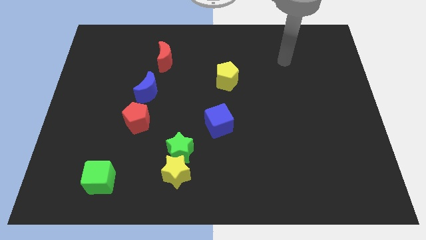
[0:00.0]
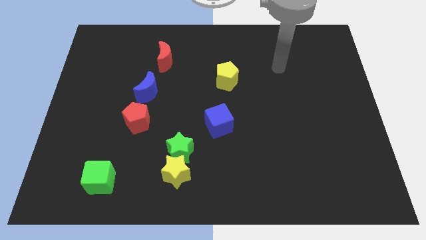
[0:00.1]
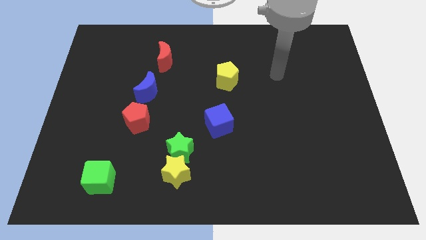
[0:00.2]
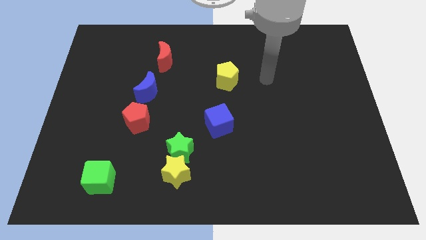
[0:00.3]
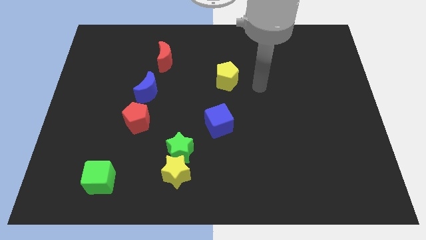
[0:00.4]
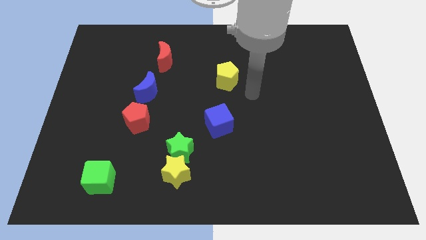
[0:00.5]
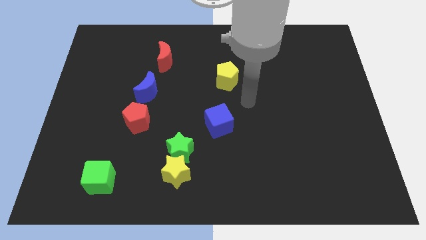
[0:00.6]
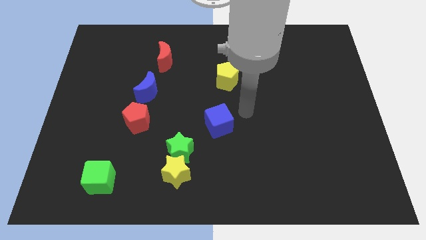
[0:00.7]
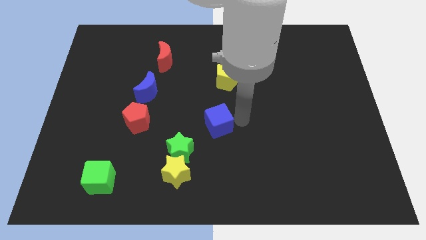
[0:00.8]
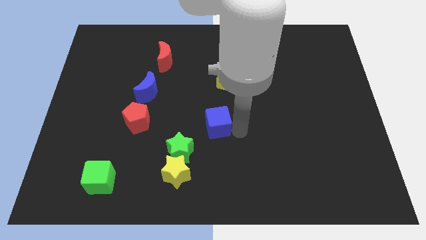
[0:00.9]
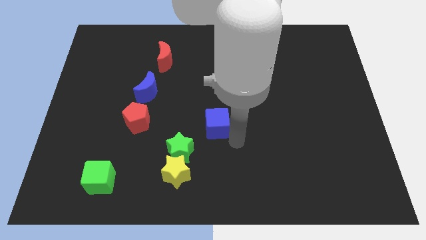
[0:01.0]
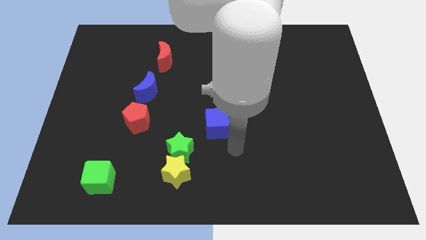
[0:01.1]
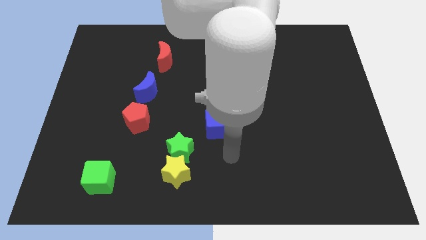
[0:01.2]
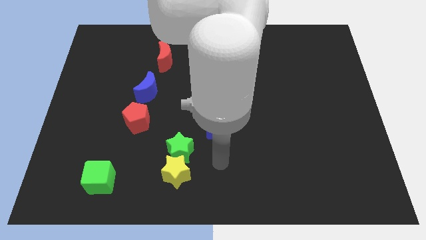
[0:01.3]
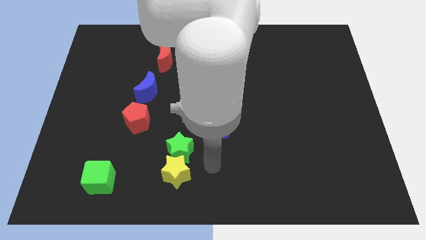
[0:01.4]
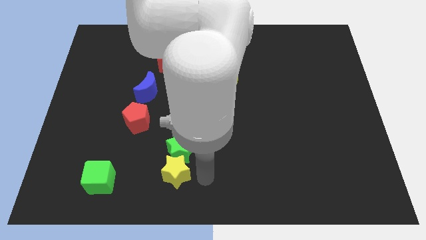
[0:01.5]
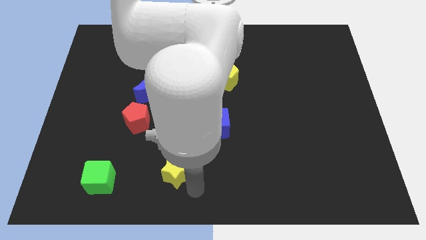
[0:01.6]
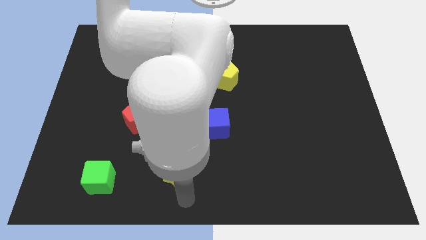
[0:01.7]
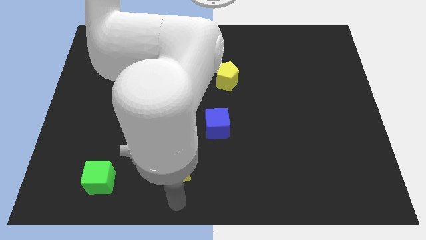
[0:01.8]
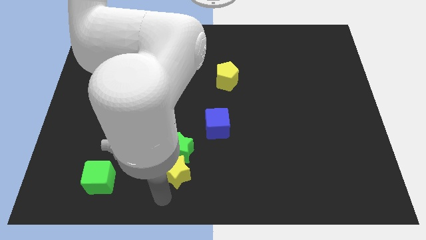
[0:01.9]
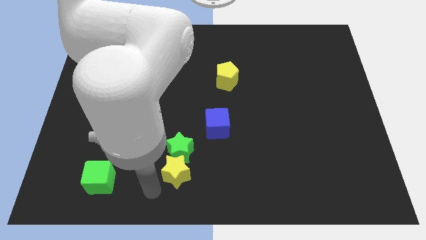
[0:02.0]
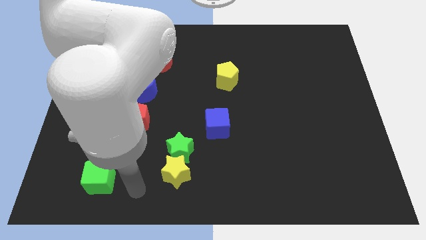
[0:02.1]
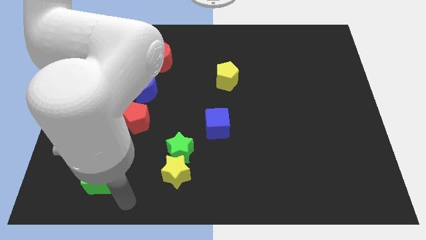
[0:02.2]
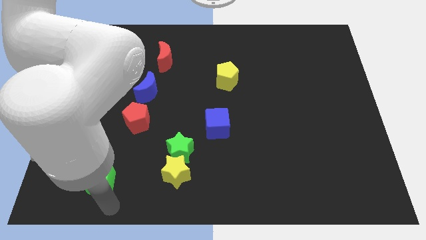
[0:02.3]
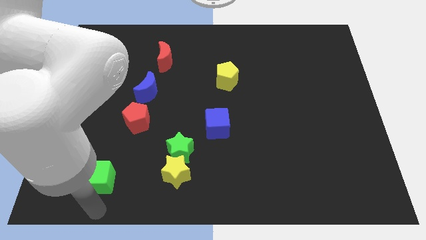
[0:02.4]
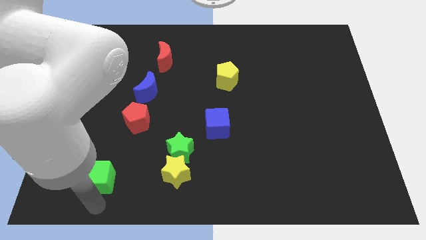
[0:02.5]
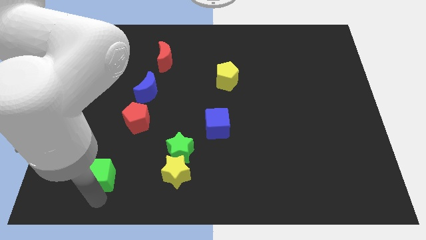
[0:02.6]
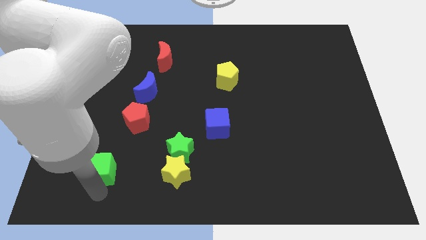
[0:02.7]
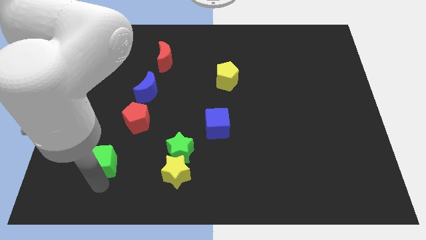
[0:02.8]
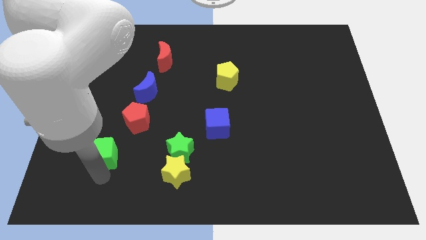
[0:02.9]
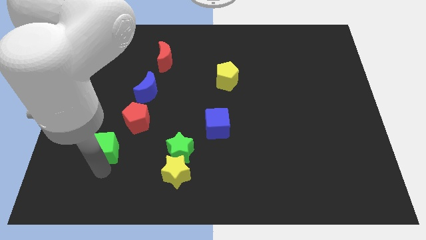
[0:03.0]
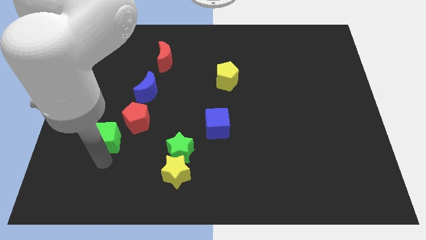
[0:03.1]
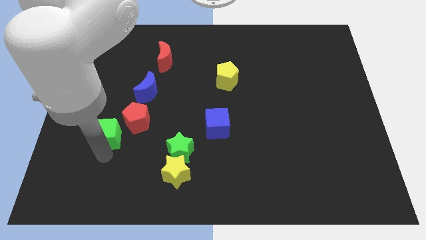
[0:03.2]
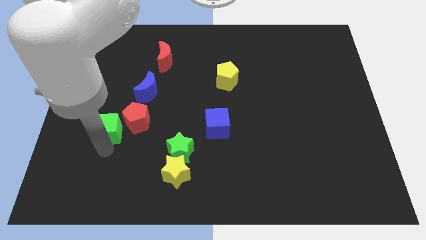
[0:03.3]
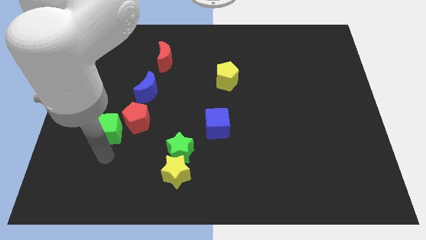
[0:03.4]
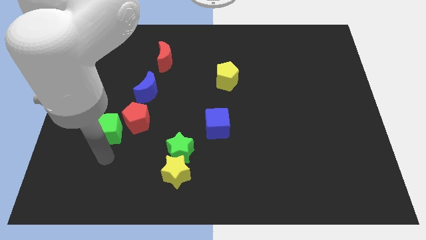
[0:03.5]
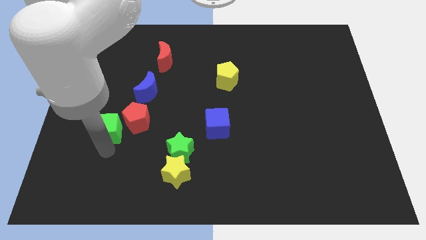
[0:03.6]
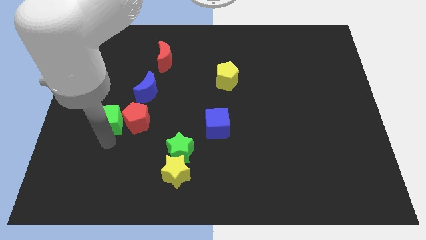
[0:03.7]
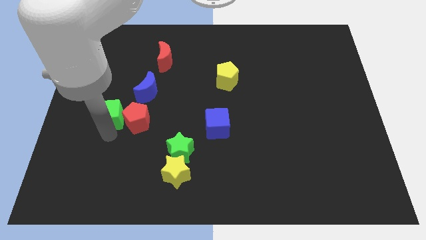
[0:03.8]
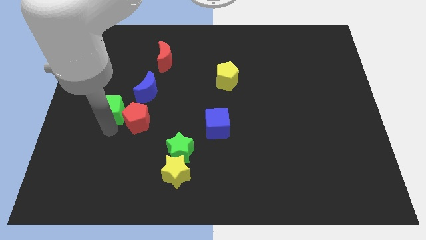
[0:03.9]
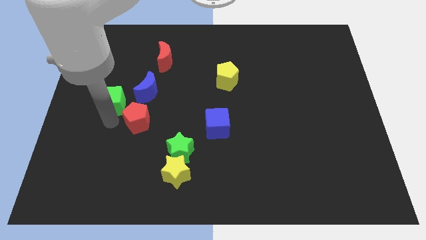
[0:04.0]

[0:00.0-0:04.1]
push the green cube upwards

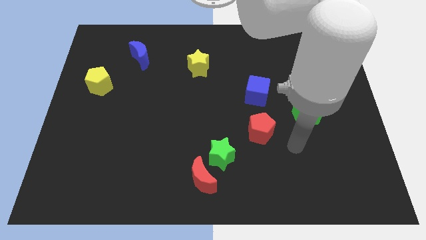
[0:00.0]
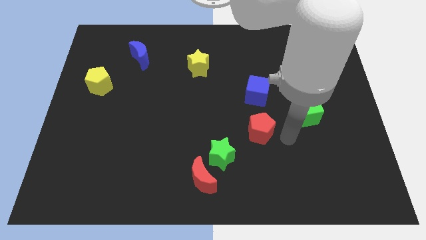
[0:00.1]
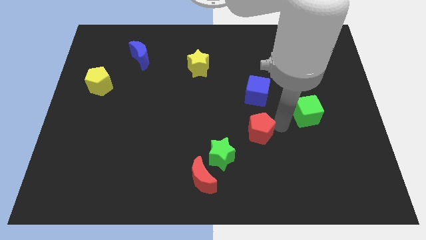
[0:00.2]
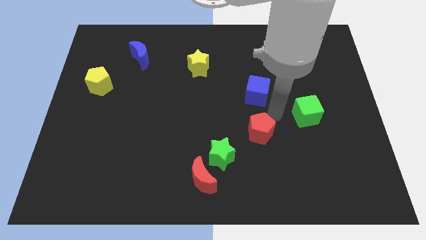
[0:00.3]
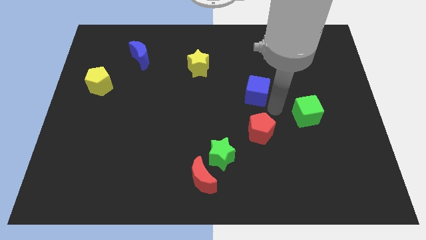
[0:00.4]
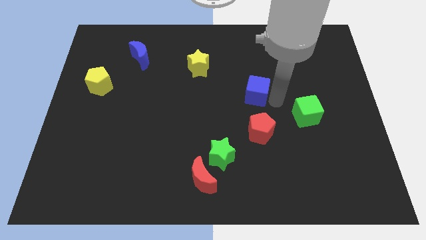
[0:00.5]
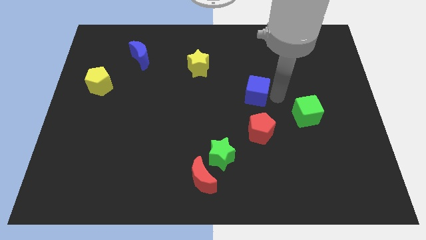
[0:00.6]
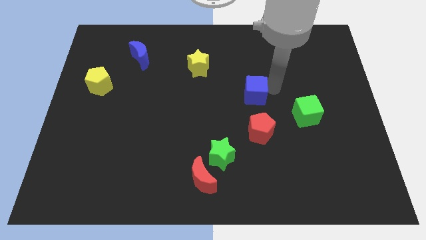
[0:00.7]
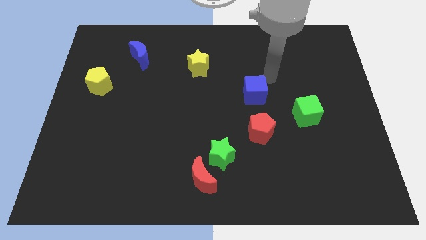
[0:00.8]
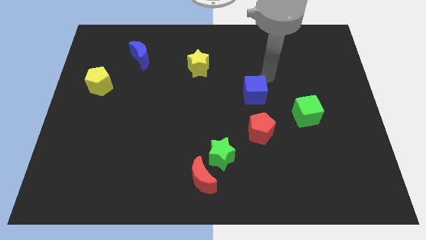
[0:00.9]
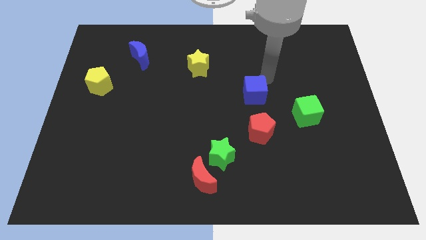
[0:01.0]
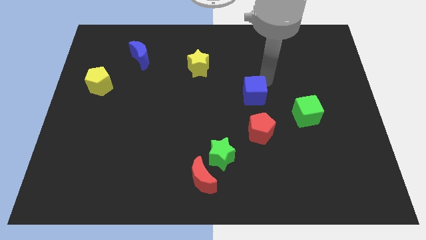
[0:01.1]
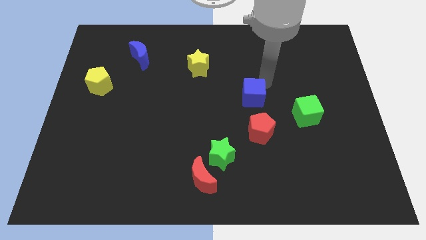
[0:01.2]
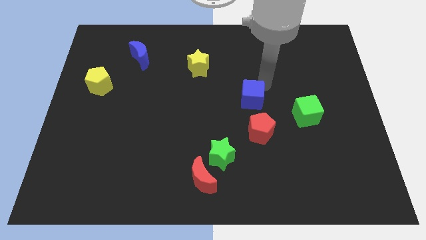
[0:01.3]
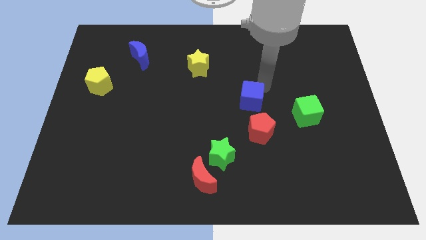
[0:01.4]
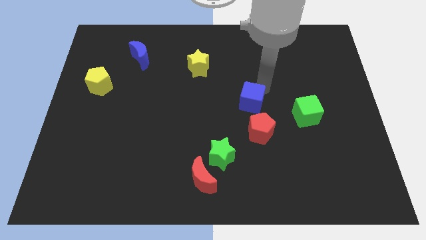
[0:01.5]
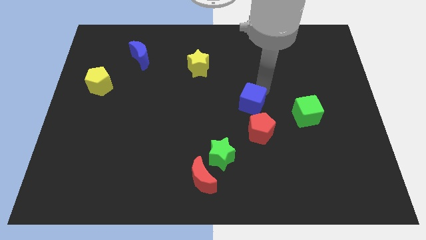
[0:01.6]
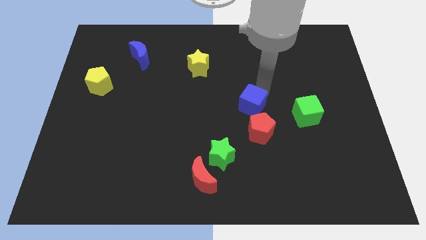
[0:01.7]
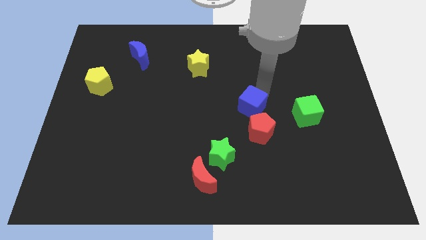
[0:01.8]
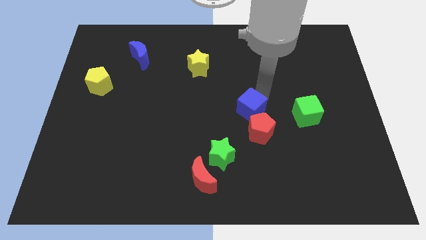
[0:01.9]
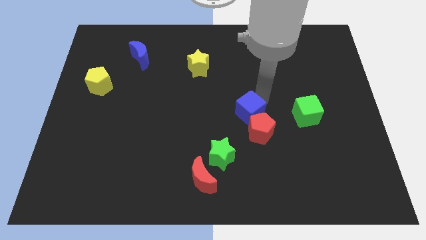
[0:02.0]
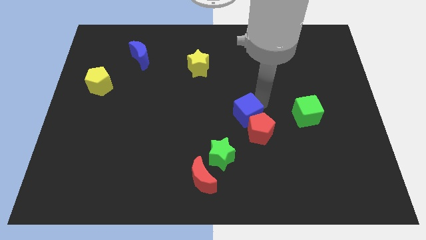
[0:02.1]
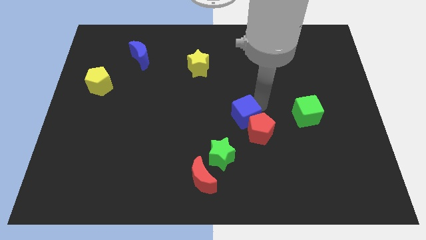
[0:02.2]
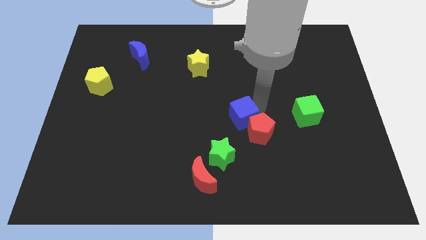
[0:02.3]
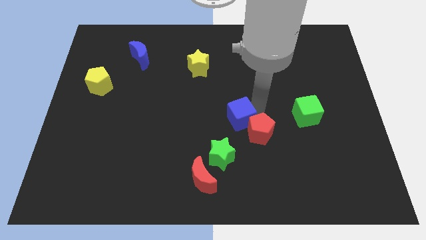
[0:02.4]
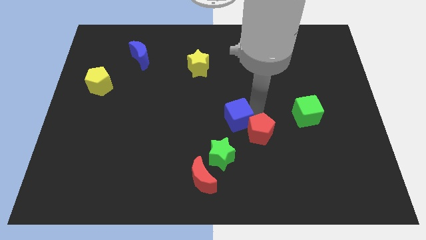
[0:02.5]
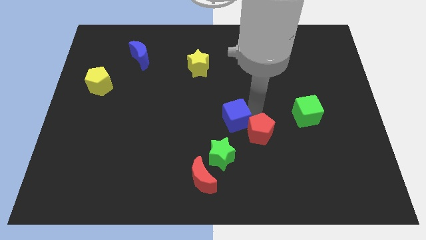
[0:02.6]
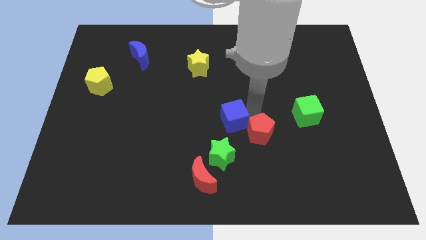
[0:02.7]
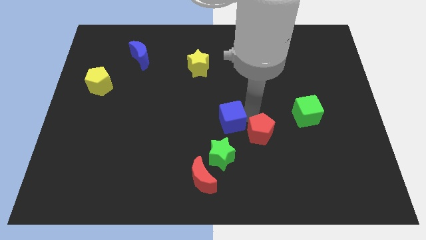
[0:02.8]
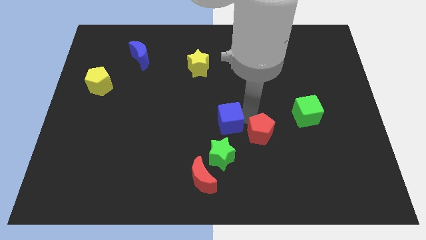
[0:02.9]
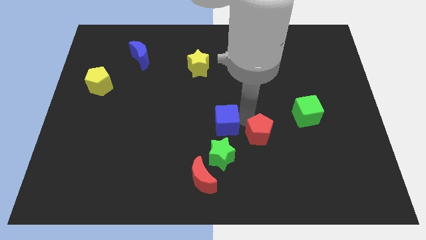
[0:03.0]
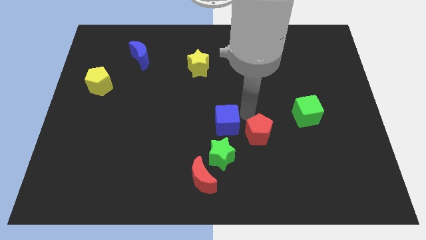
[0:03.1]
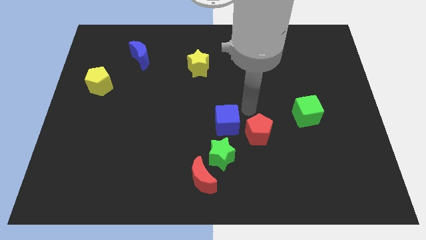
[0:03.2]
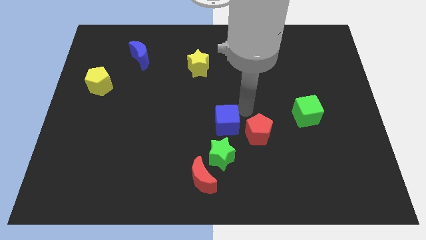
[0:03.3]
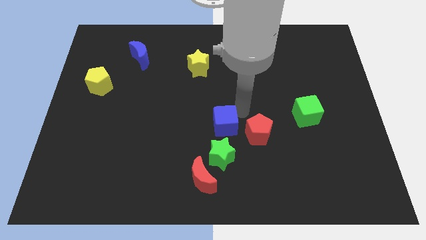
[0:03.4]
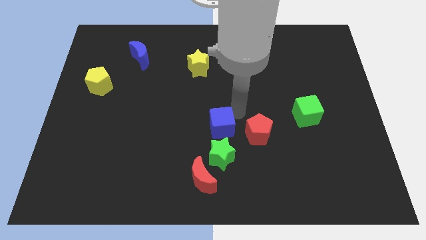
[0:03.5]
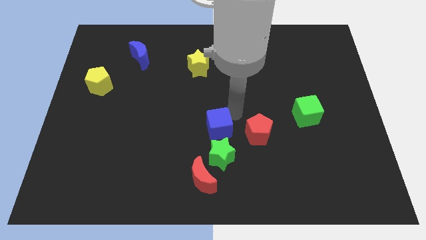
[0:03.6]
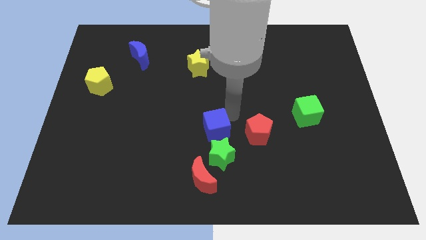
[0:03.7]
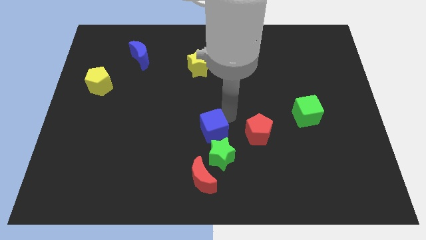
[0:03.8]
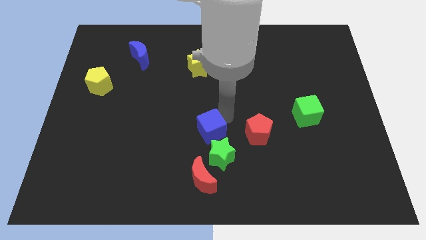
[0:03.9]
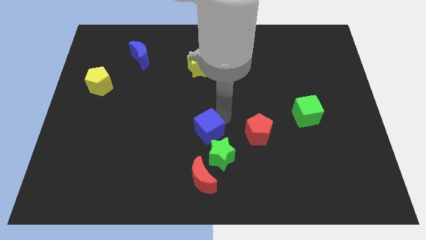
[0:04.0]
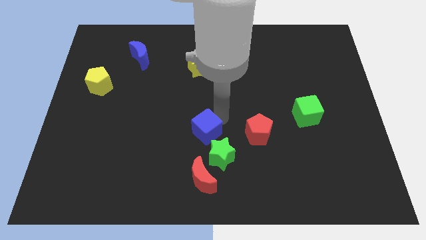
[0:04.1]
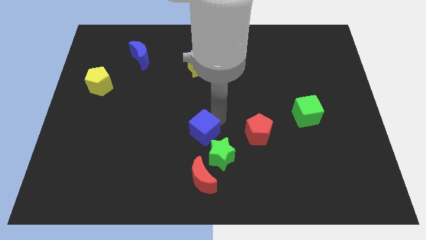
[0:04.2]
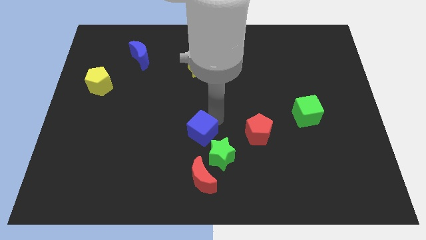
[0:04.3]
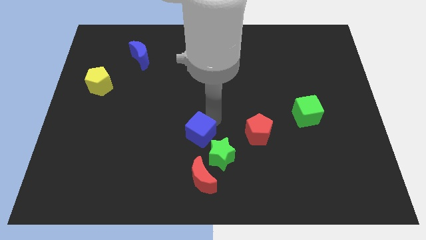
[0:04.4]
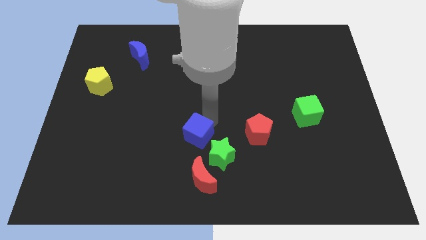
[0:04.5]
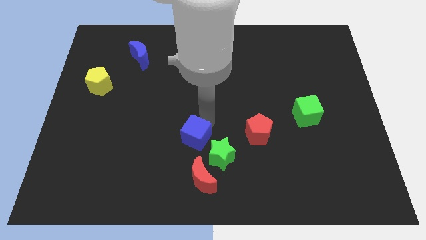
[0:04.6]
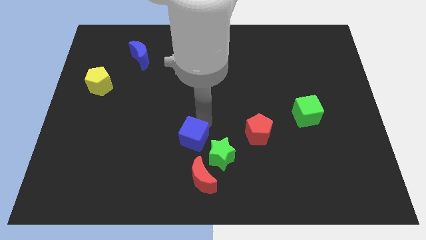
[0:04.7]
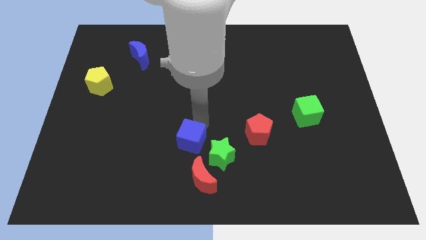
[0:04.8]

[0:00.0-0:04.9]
slide the blue cube down and then left
